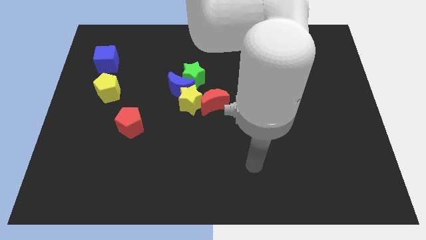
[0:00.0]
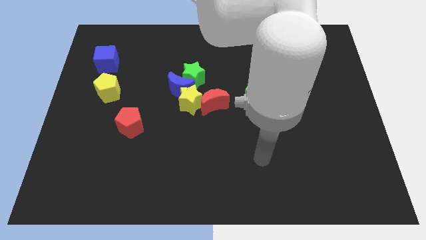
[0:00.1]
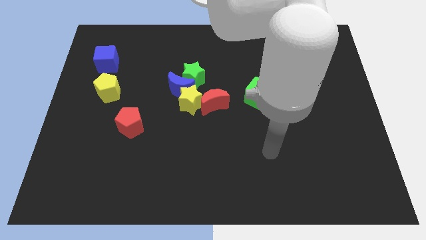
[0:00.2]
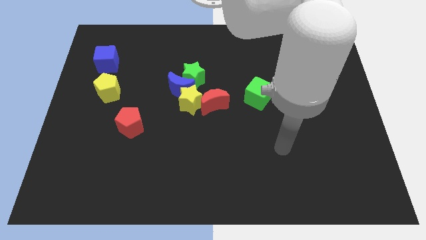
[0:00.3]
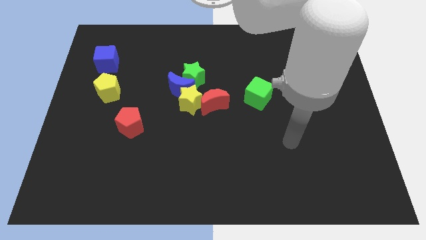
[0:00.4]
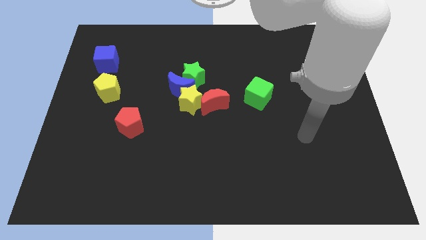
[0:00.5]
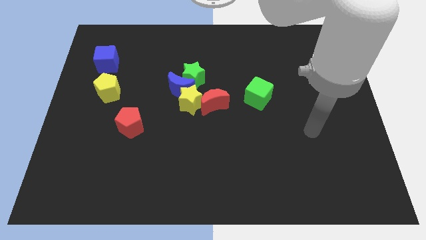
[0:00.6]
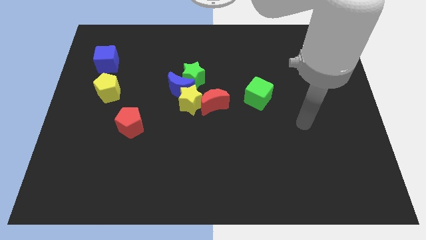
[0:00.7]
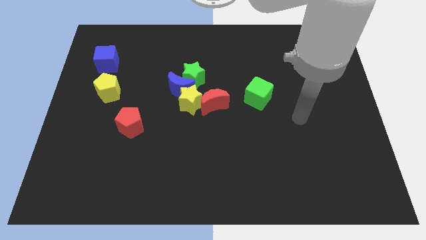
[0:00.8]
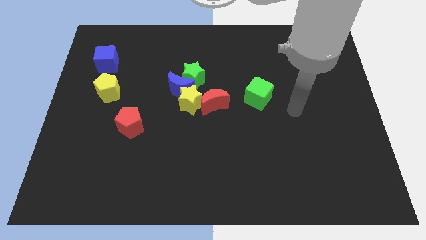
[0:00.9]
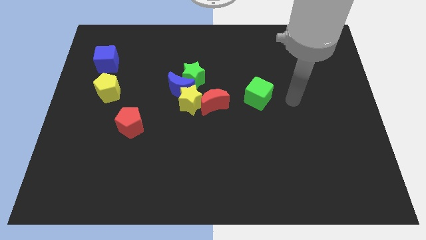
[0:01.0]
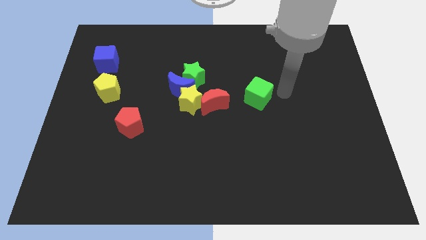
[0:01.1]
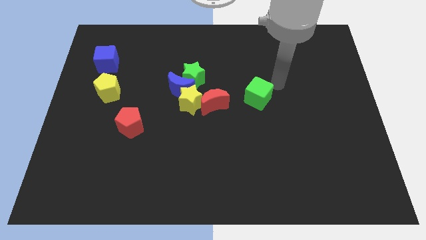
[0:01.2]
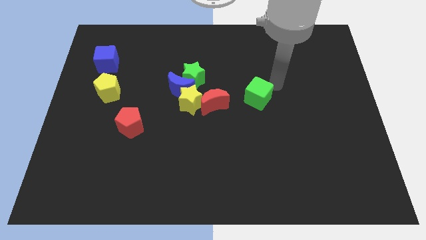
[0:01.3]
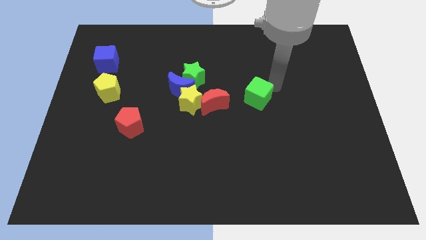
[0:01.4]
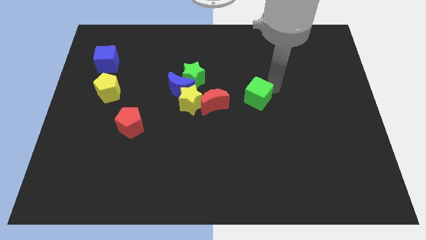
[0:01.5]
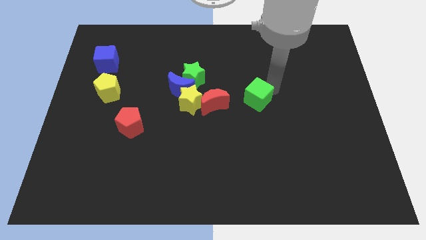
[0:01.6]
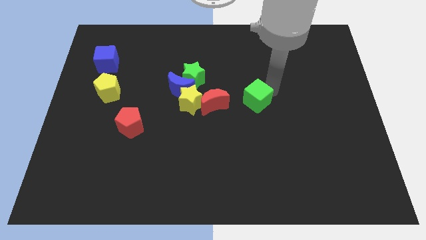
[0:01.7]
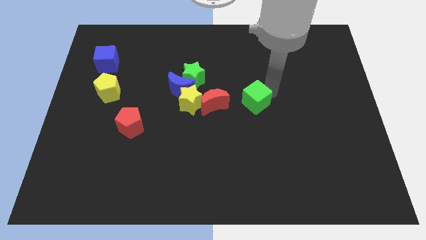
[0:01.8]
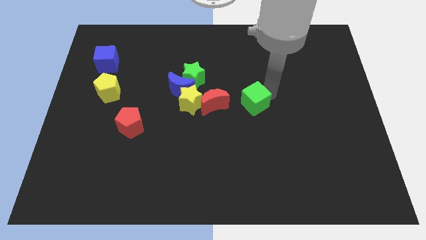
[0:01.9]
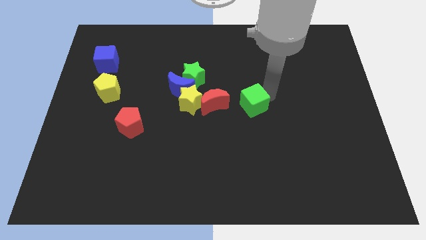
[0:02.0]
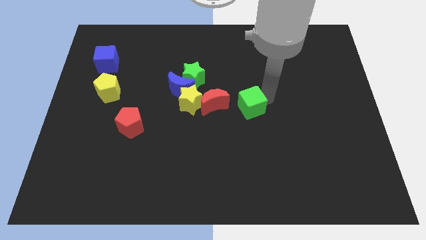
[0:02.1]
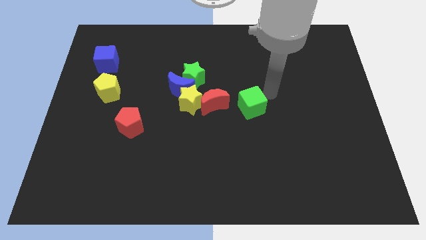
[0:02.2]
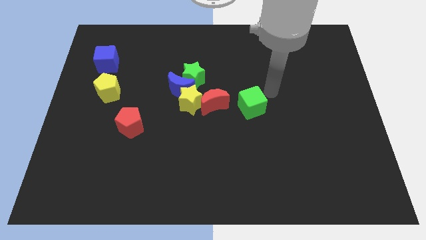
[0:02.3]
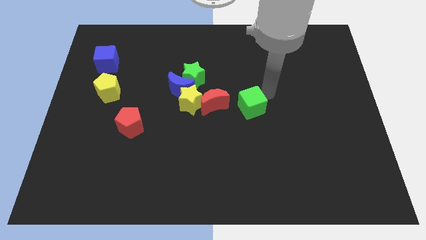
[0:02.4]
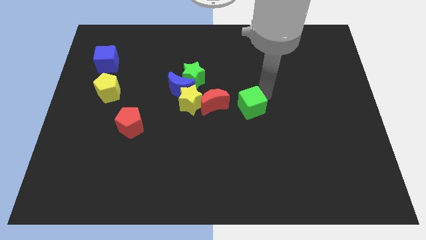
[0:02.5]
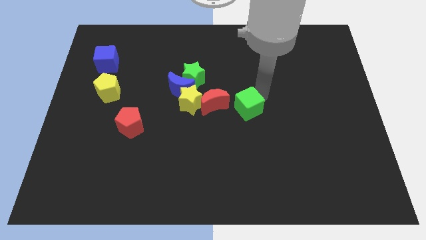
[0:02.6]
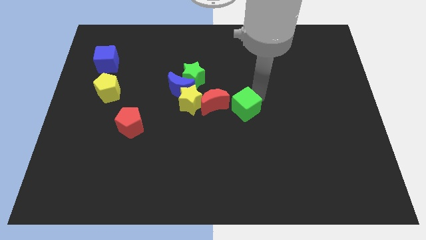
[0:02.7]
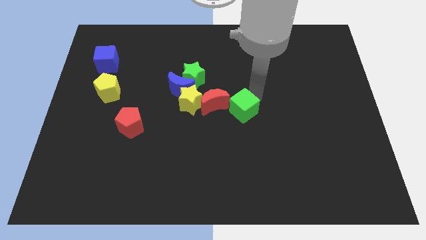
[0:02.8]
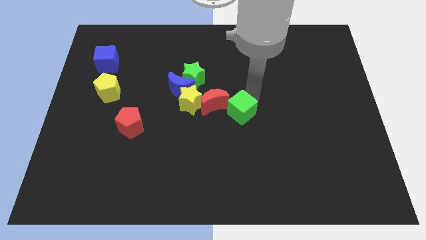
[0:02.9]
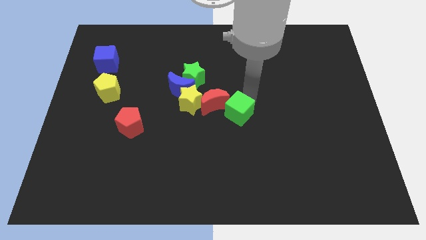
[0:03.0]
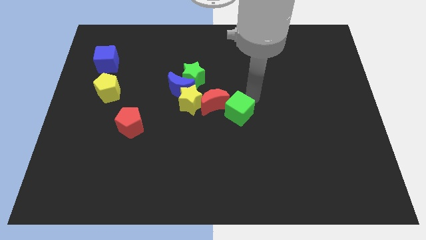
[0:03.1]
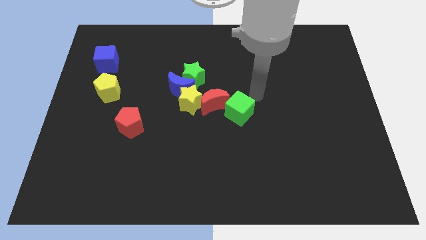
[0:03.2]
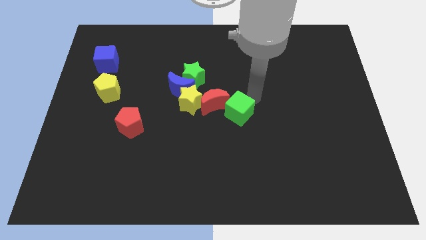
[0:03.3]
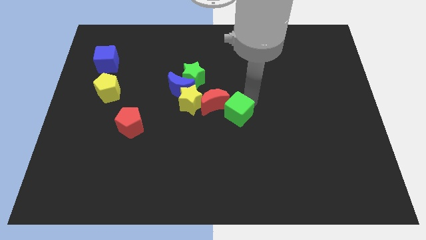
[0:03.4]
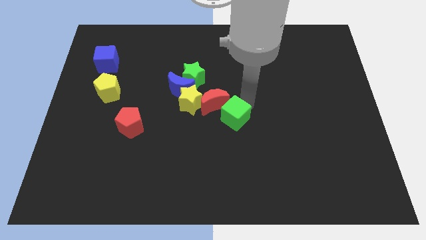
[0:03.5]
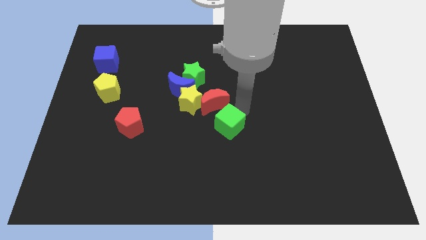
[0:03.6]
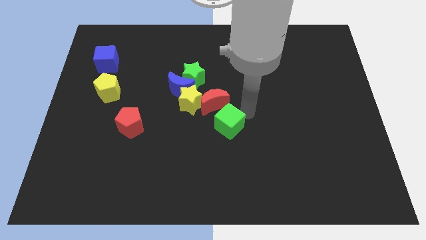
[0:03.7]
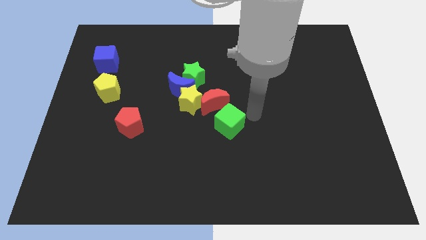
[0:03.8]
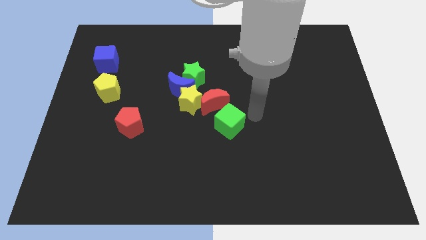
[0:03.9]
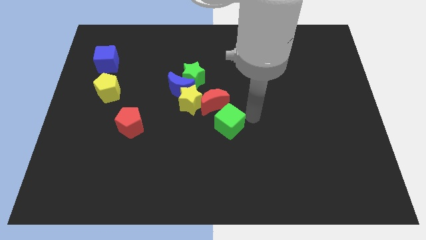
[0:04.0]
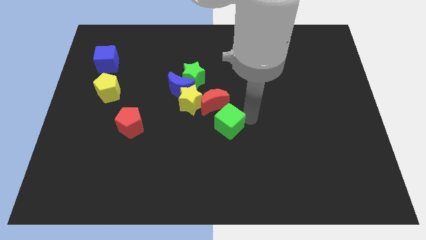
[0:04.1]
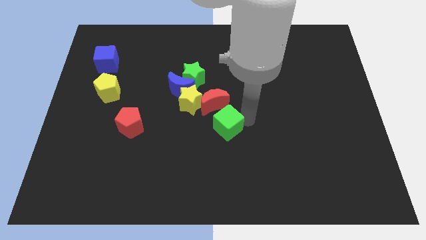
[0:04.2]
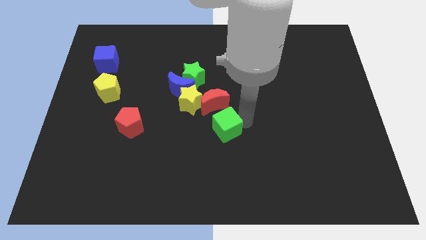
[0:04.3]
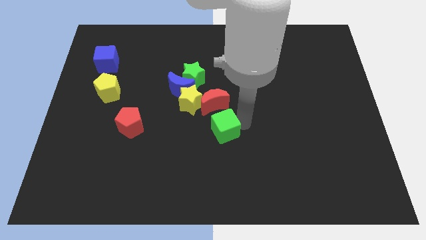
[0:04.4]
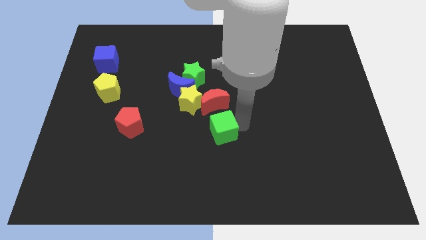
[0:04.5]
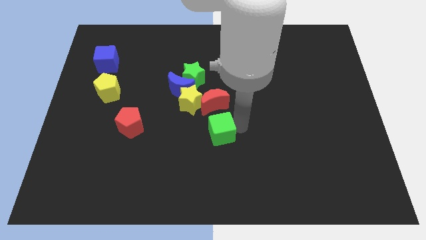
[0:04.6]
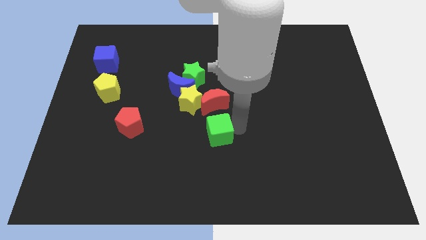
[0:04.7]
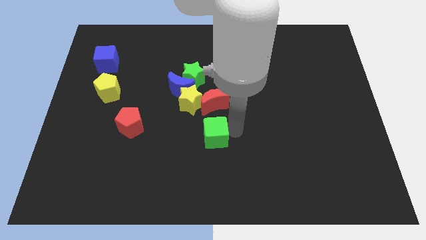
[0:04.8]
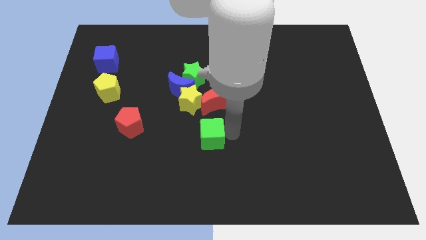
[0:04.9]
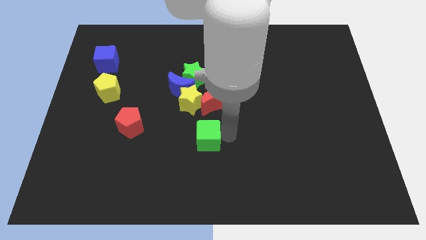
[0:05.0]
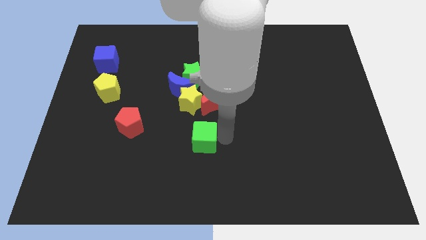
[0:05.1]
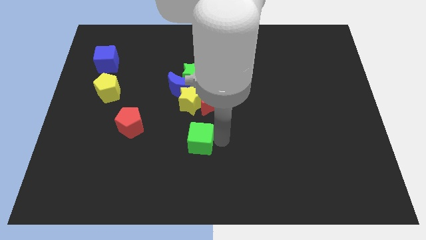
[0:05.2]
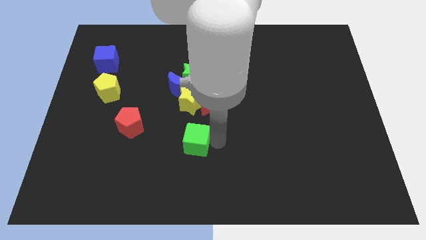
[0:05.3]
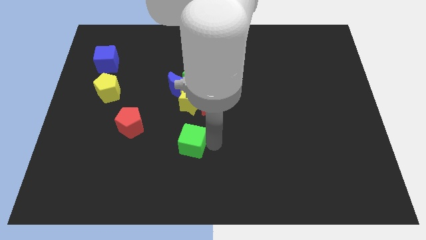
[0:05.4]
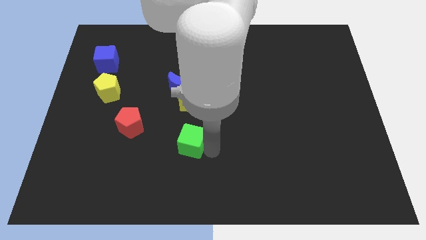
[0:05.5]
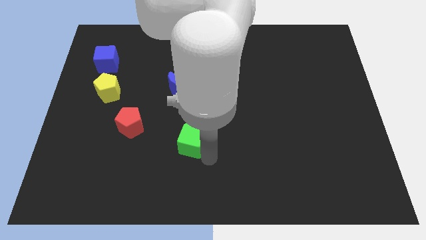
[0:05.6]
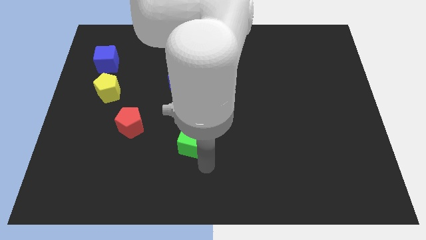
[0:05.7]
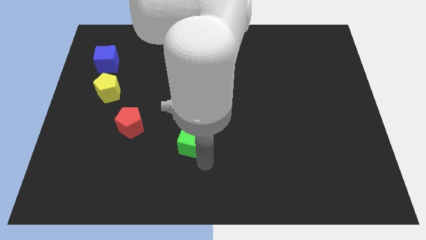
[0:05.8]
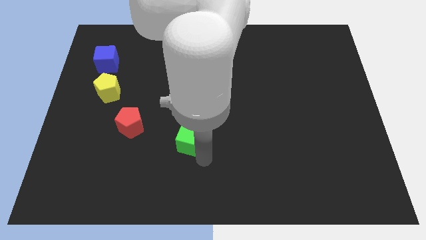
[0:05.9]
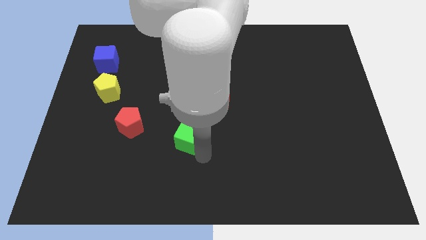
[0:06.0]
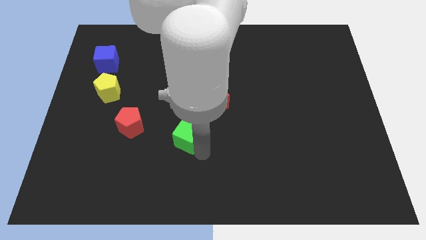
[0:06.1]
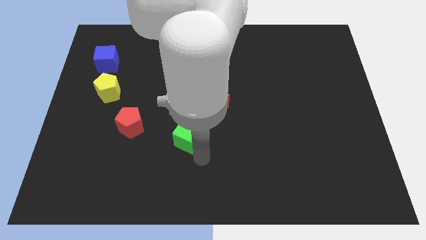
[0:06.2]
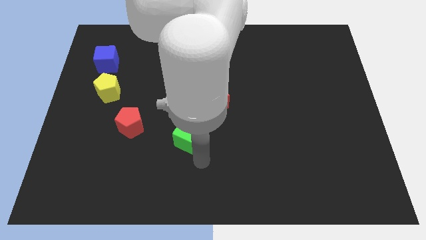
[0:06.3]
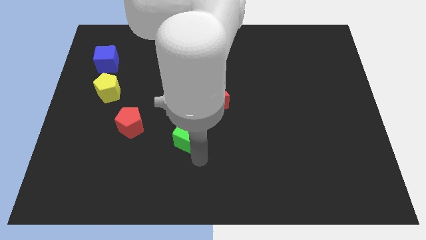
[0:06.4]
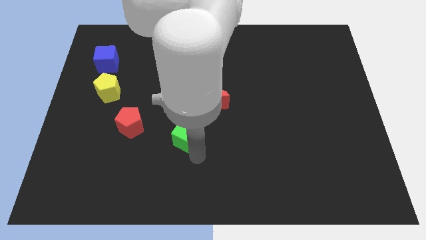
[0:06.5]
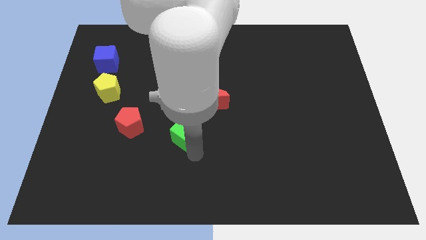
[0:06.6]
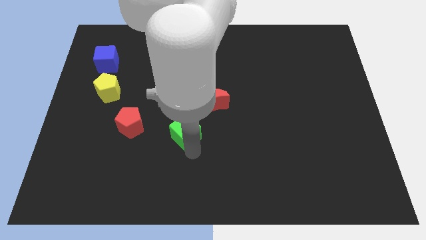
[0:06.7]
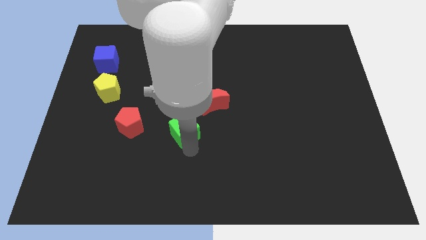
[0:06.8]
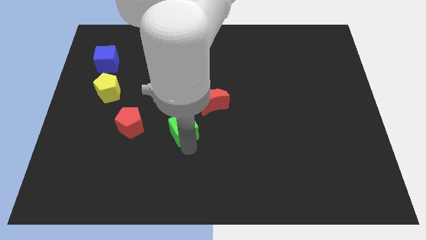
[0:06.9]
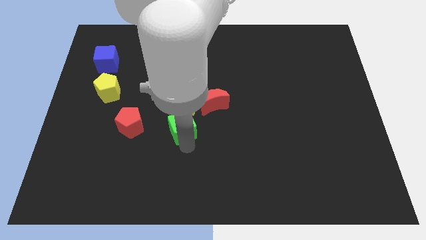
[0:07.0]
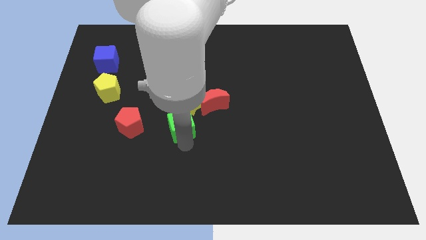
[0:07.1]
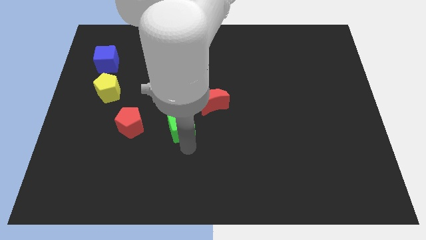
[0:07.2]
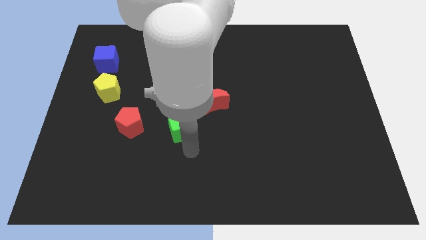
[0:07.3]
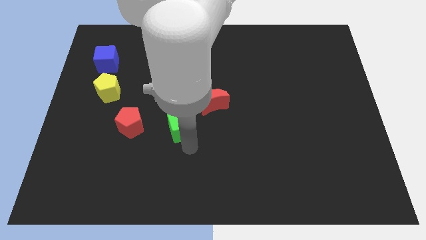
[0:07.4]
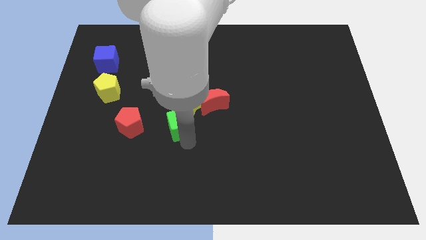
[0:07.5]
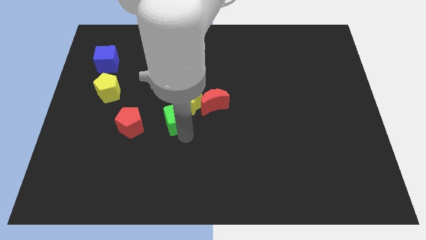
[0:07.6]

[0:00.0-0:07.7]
push the green cube left of the red moon
